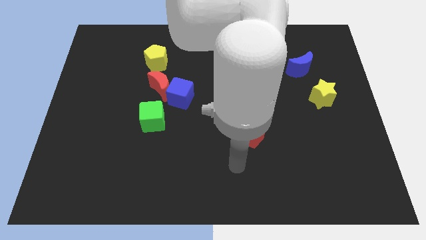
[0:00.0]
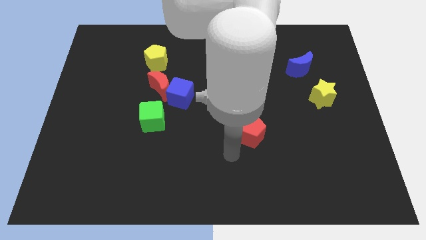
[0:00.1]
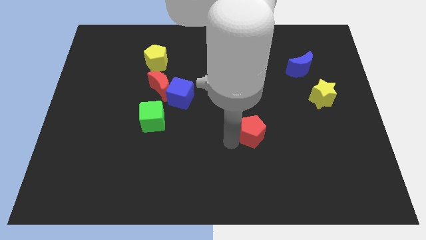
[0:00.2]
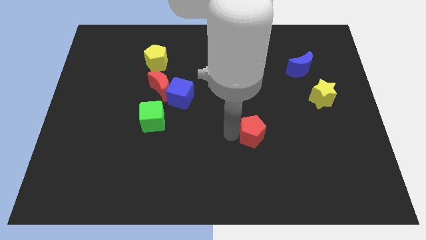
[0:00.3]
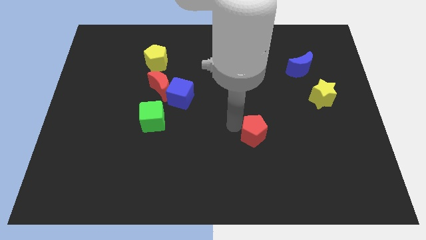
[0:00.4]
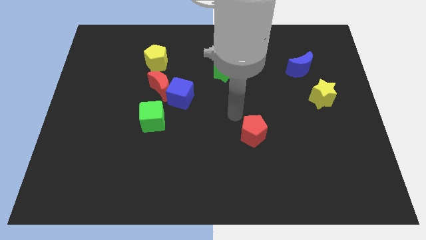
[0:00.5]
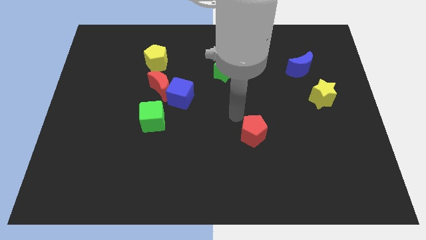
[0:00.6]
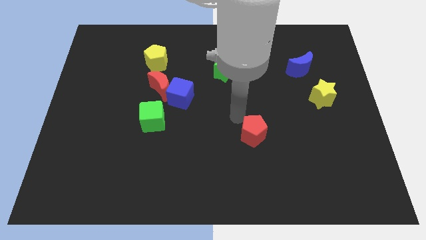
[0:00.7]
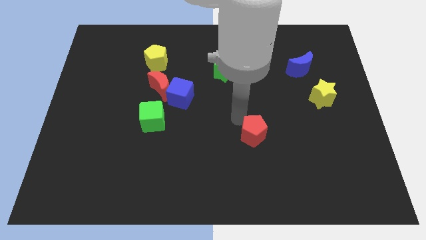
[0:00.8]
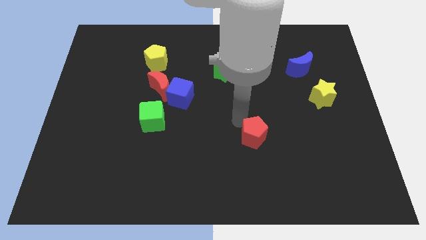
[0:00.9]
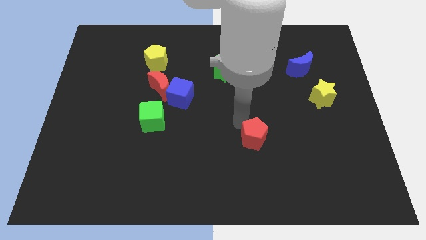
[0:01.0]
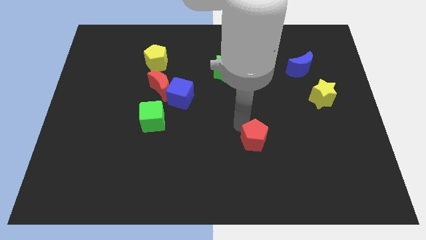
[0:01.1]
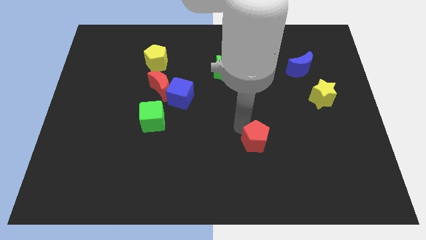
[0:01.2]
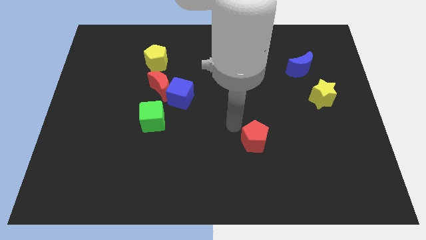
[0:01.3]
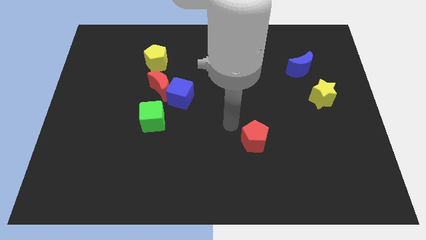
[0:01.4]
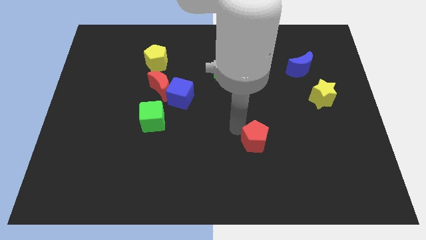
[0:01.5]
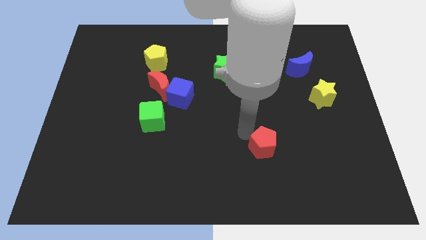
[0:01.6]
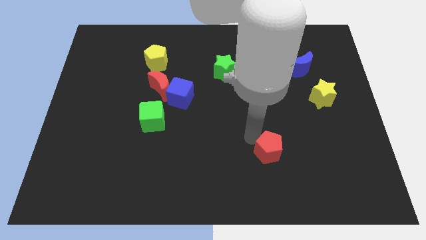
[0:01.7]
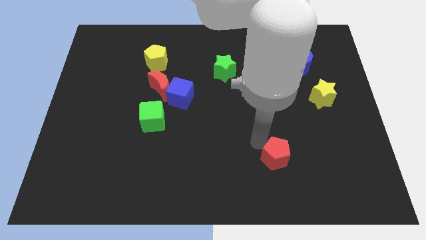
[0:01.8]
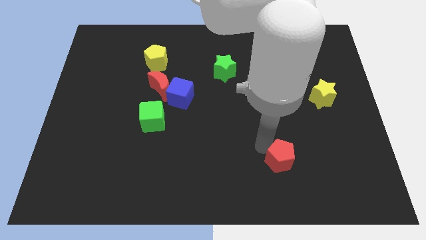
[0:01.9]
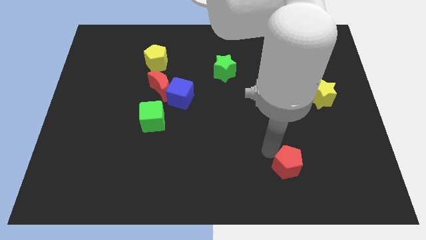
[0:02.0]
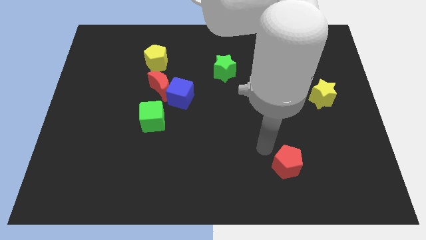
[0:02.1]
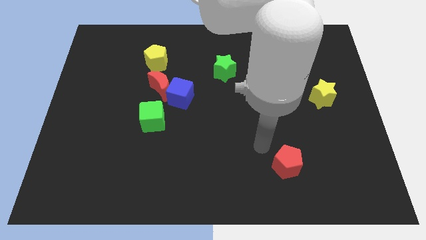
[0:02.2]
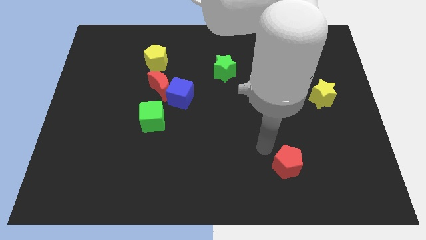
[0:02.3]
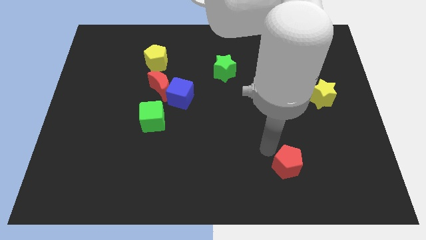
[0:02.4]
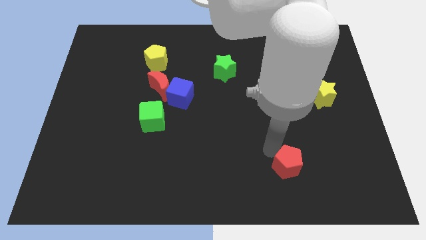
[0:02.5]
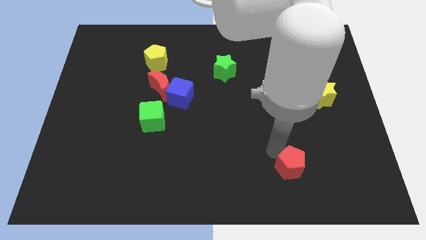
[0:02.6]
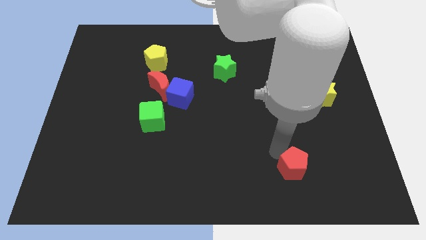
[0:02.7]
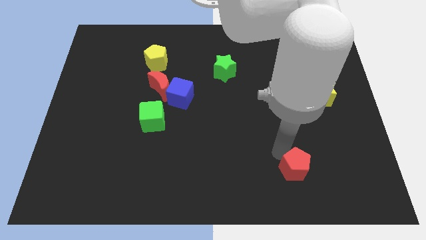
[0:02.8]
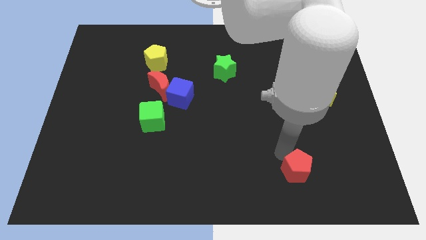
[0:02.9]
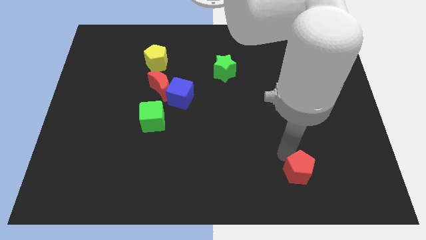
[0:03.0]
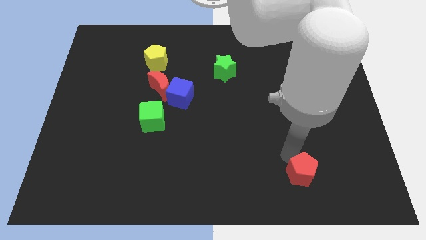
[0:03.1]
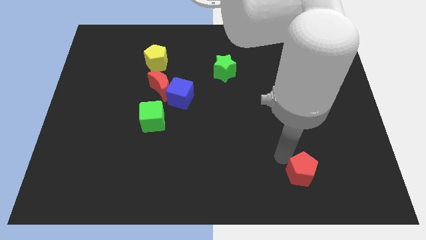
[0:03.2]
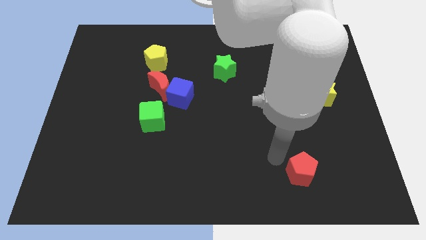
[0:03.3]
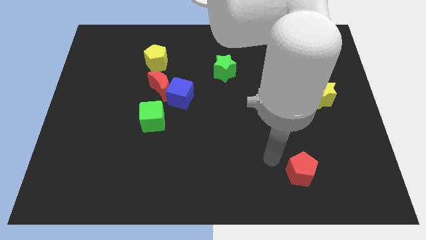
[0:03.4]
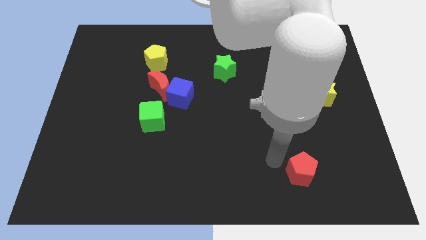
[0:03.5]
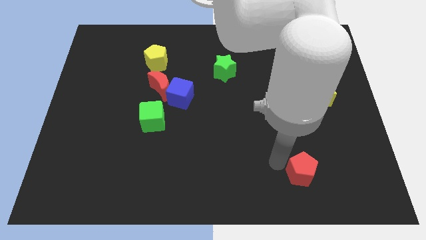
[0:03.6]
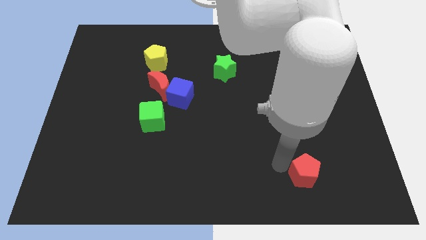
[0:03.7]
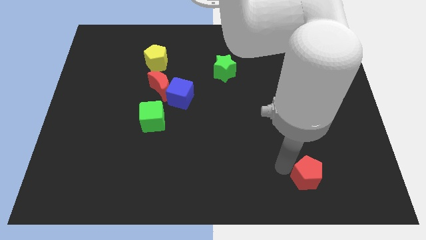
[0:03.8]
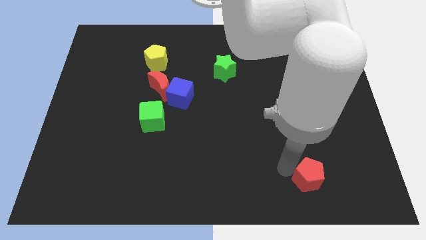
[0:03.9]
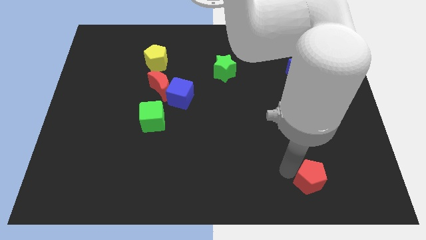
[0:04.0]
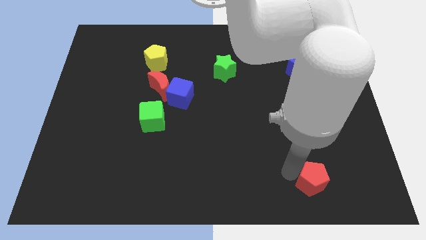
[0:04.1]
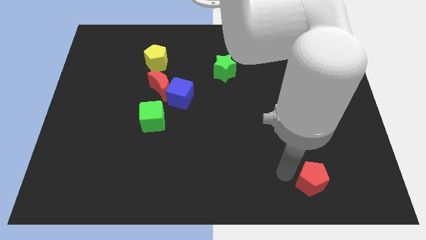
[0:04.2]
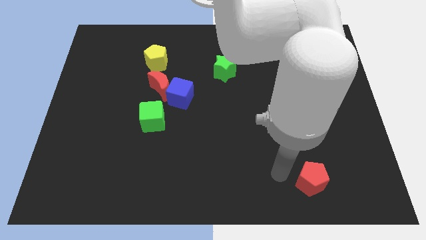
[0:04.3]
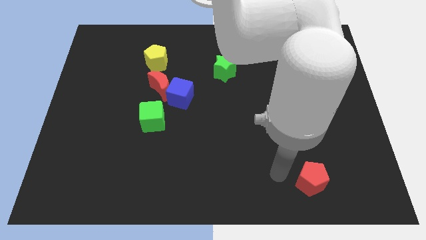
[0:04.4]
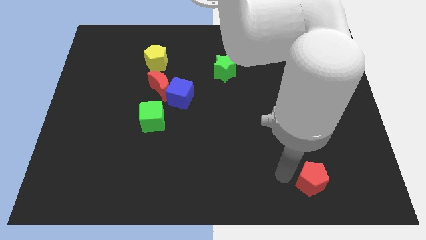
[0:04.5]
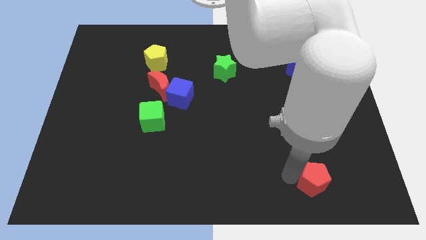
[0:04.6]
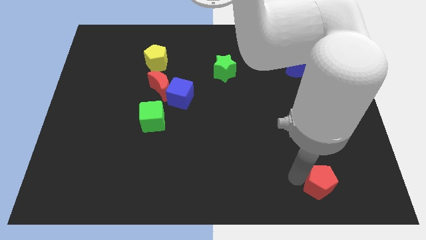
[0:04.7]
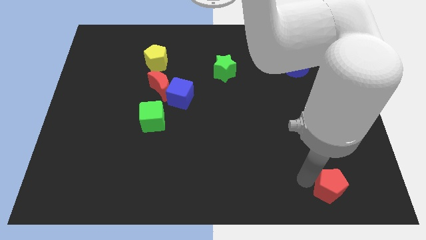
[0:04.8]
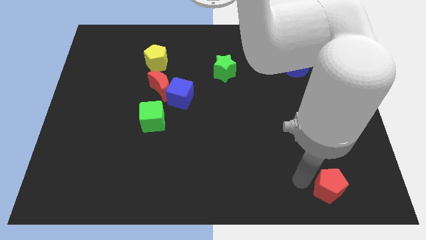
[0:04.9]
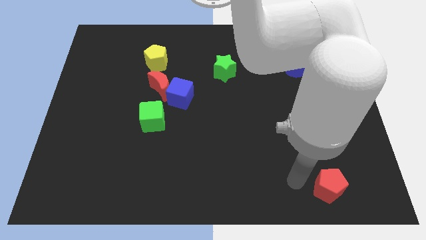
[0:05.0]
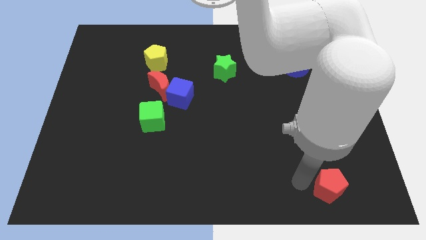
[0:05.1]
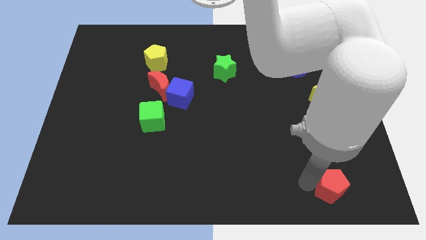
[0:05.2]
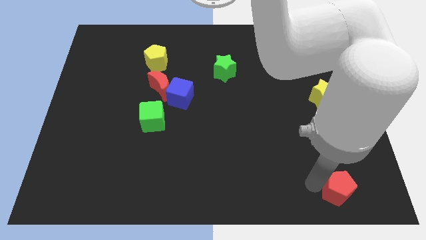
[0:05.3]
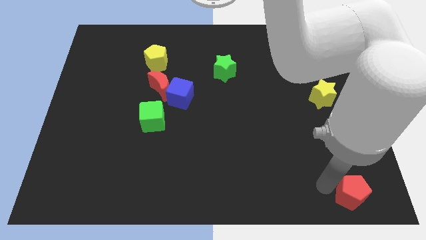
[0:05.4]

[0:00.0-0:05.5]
put the red pentagon to the bottom right

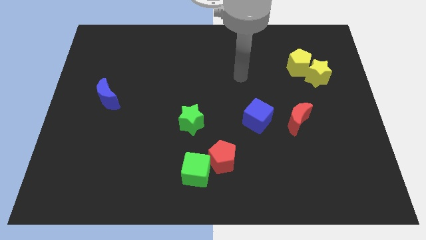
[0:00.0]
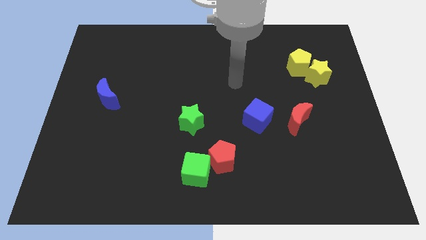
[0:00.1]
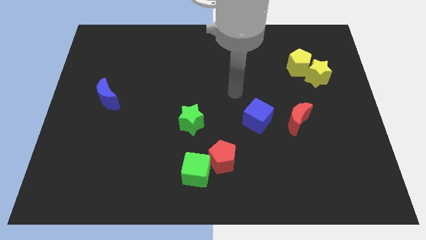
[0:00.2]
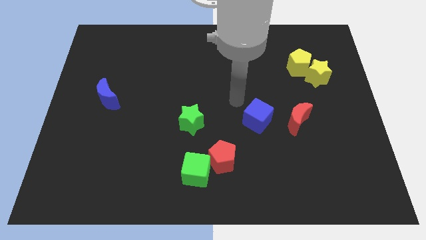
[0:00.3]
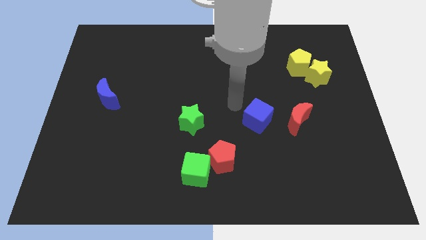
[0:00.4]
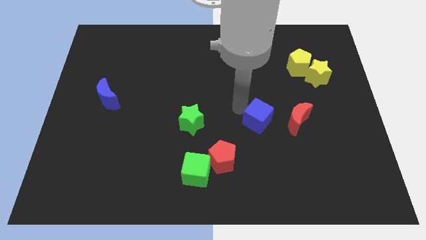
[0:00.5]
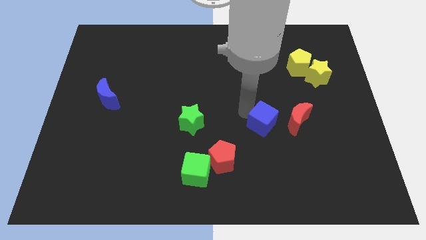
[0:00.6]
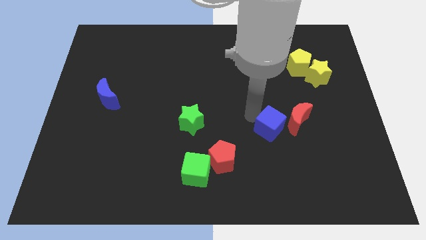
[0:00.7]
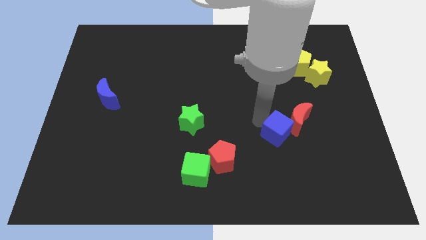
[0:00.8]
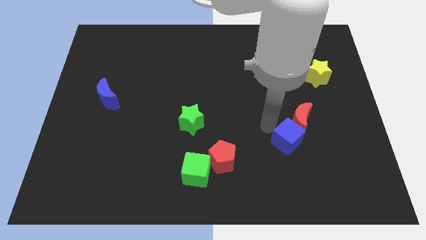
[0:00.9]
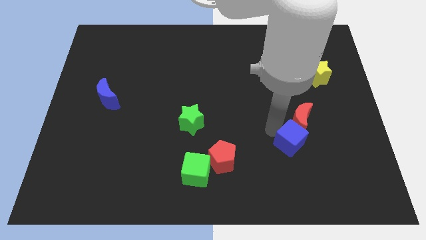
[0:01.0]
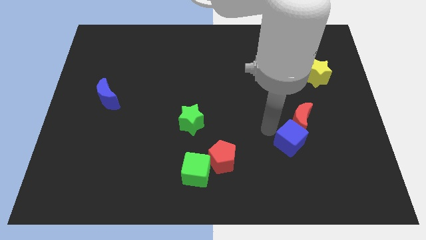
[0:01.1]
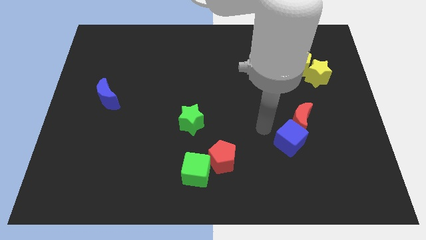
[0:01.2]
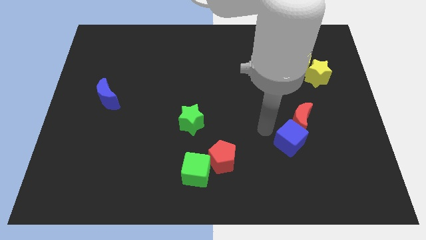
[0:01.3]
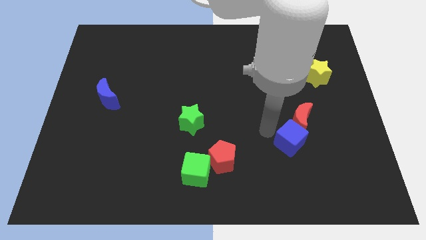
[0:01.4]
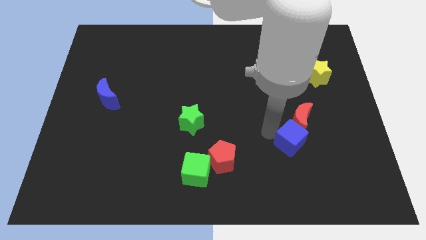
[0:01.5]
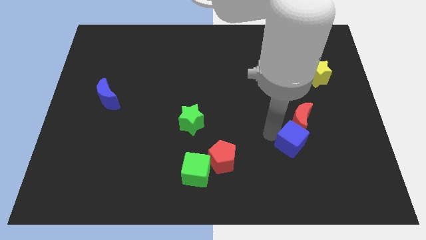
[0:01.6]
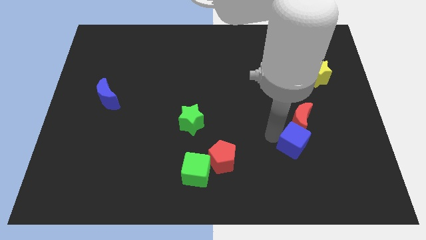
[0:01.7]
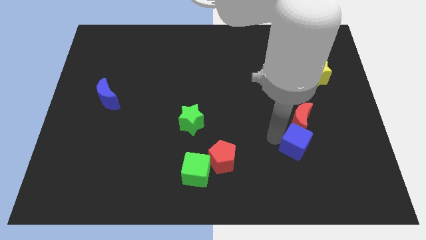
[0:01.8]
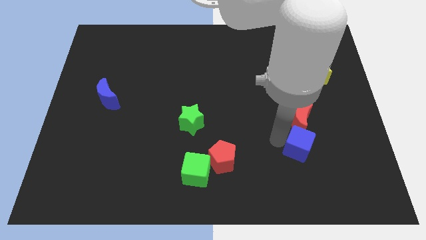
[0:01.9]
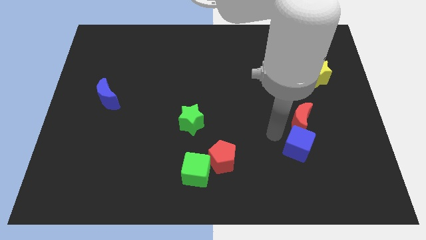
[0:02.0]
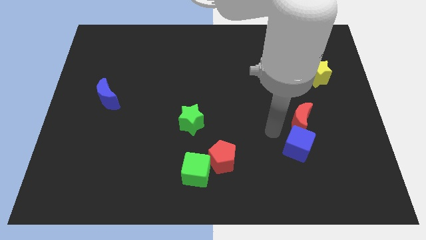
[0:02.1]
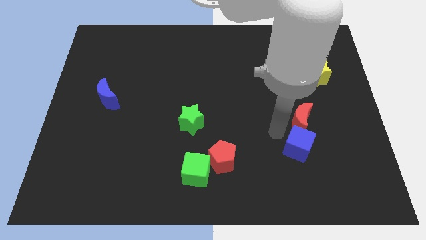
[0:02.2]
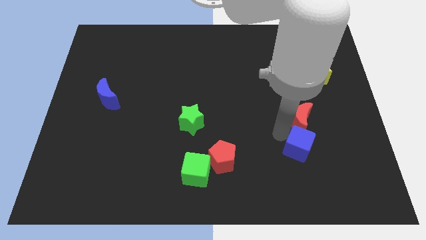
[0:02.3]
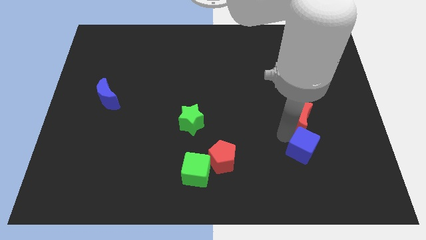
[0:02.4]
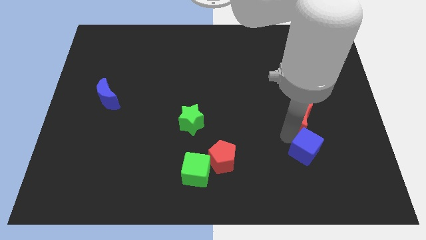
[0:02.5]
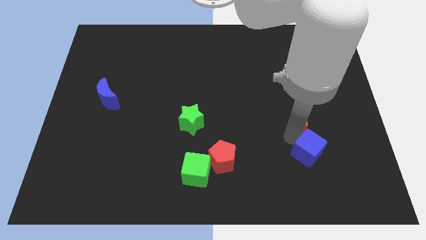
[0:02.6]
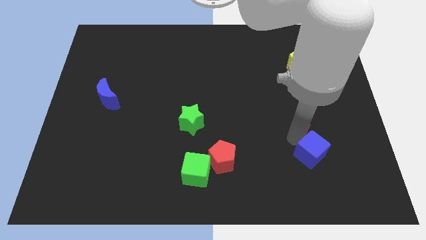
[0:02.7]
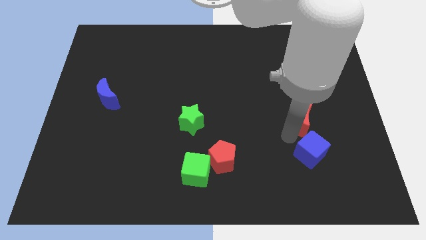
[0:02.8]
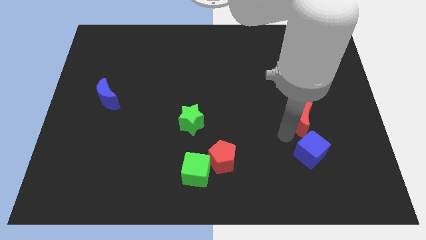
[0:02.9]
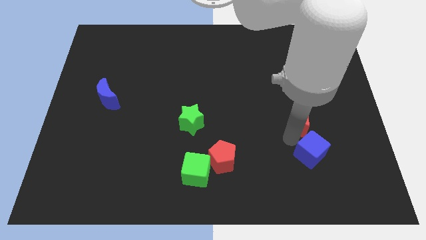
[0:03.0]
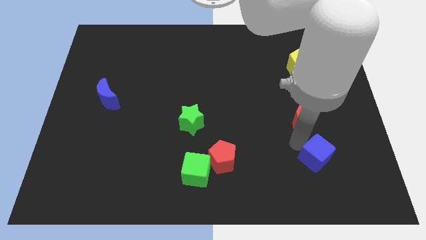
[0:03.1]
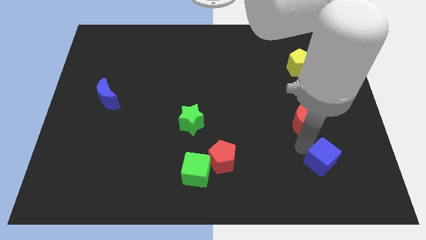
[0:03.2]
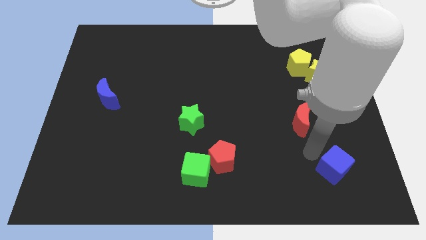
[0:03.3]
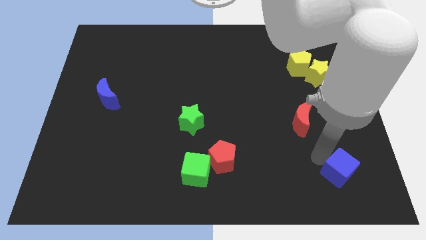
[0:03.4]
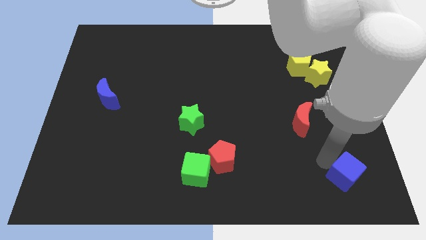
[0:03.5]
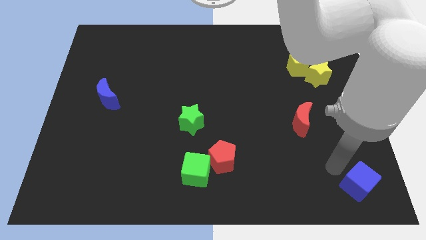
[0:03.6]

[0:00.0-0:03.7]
slide the blue cube to the bottom right
